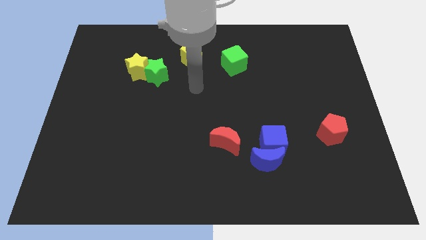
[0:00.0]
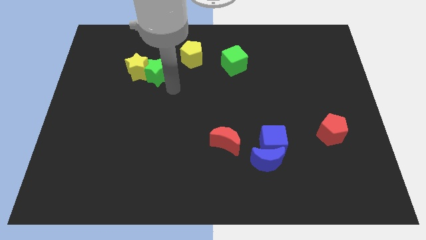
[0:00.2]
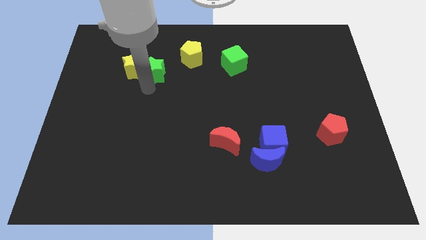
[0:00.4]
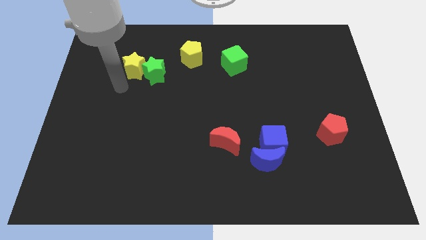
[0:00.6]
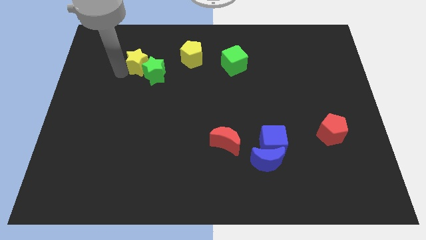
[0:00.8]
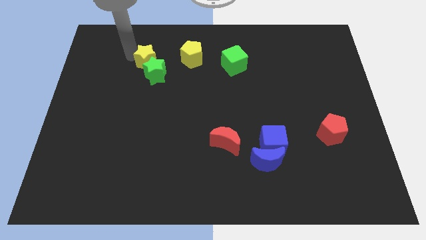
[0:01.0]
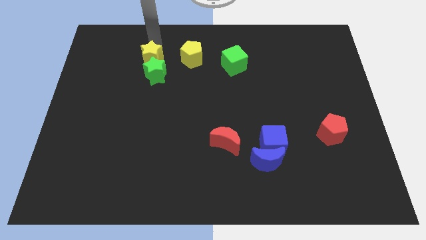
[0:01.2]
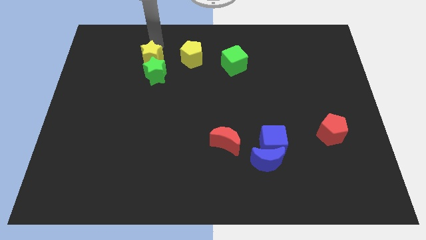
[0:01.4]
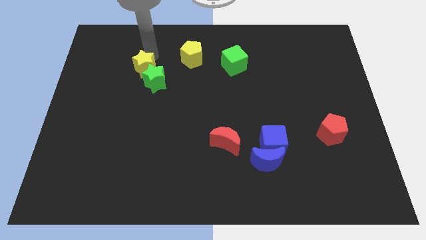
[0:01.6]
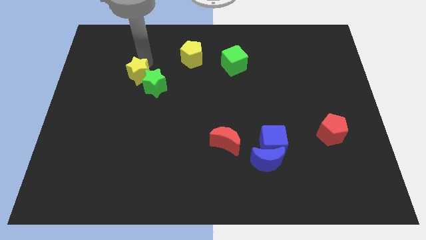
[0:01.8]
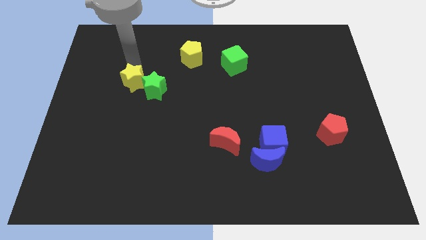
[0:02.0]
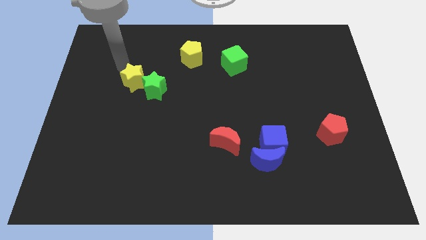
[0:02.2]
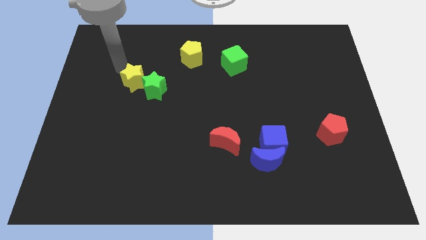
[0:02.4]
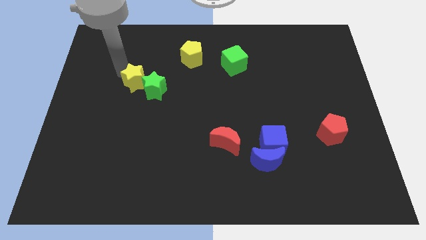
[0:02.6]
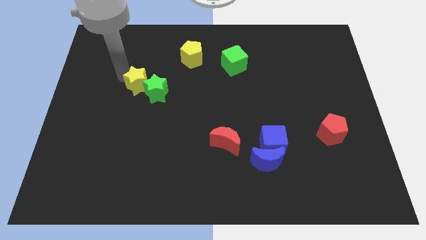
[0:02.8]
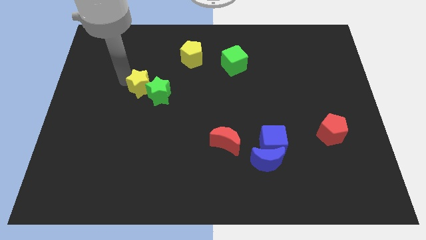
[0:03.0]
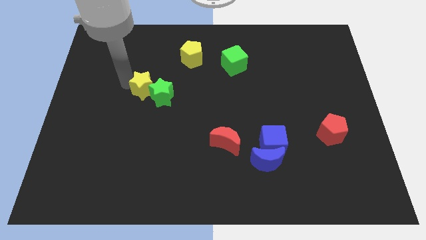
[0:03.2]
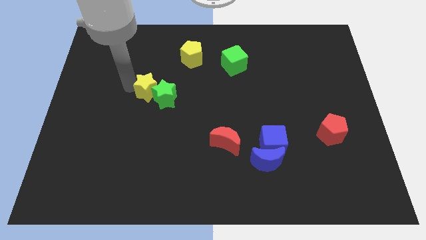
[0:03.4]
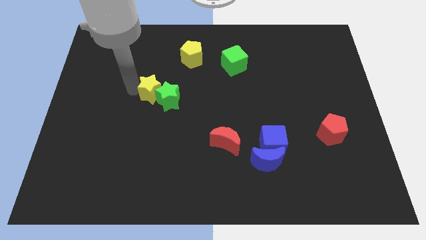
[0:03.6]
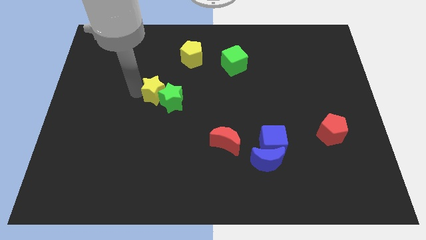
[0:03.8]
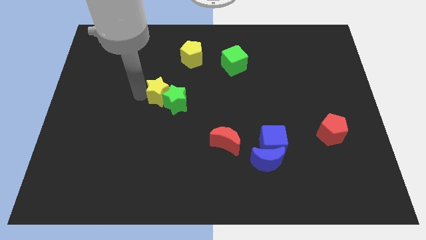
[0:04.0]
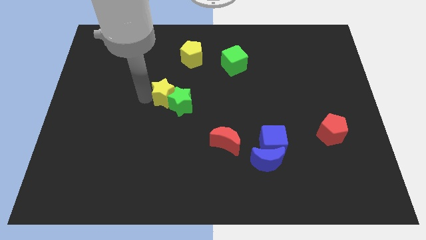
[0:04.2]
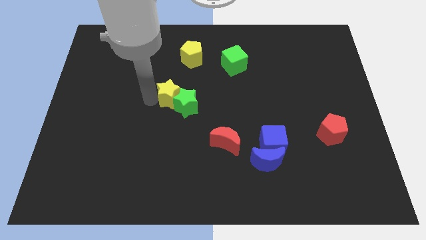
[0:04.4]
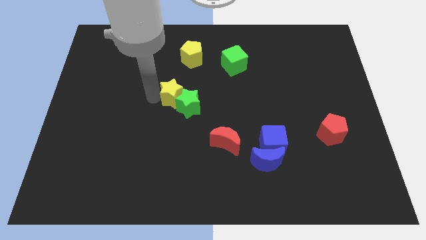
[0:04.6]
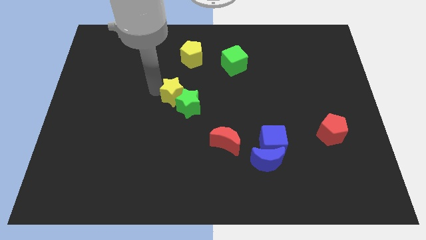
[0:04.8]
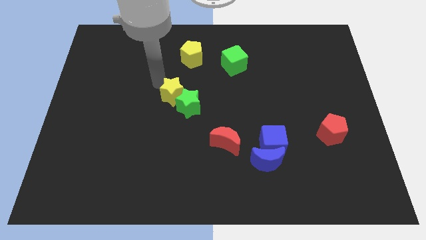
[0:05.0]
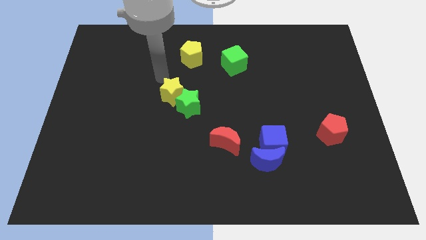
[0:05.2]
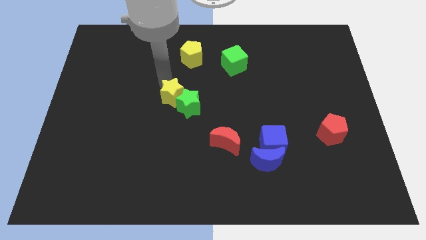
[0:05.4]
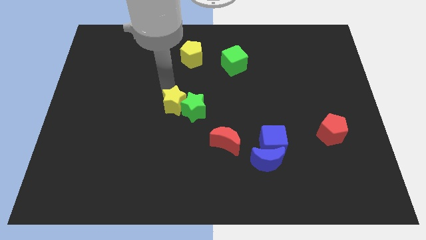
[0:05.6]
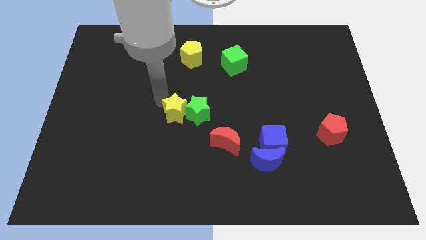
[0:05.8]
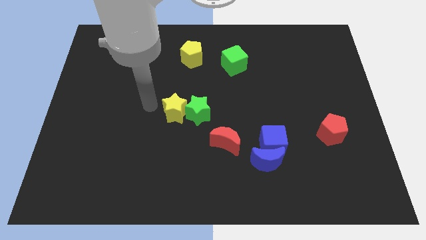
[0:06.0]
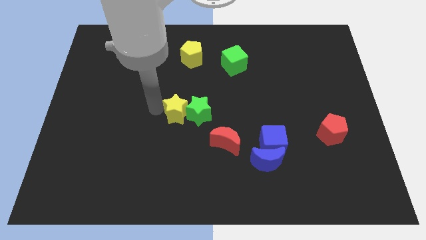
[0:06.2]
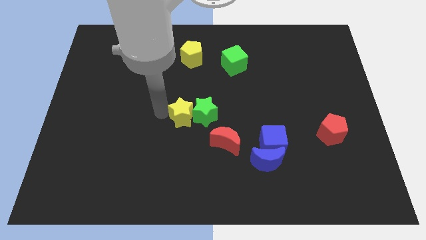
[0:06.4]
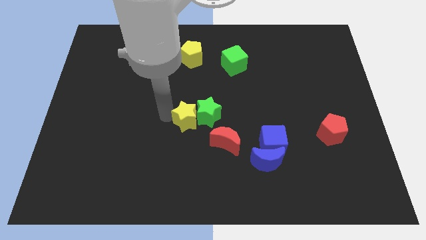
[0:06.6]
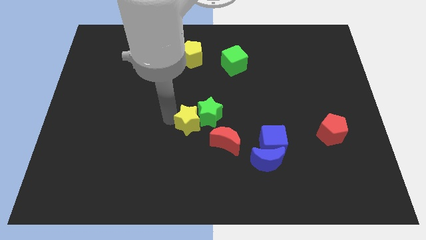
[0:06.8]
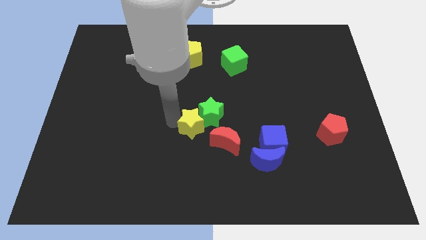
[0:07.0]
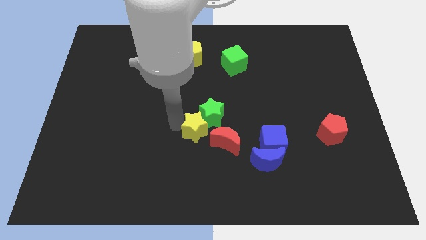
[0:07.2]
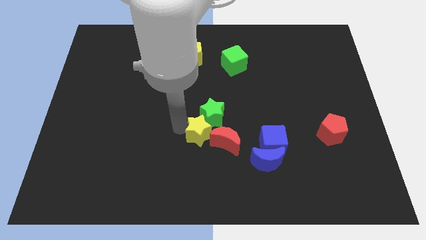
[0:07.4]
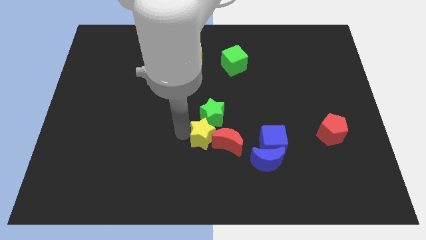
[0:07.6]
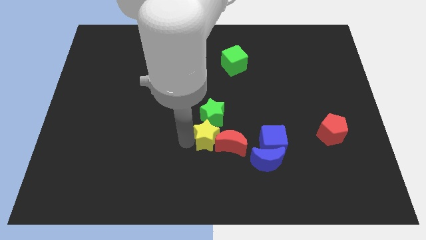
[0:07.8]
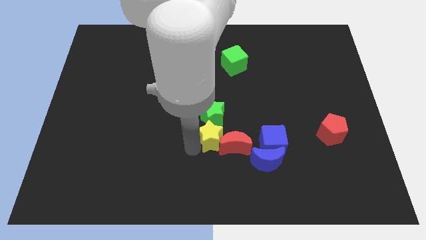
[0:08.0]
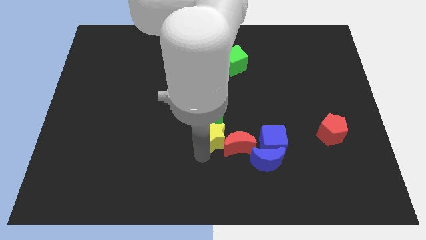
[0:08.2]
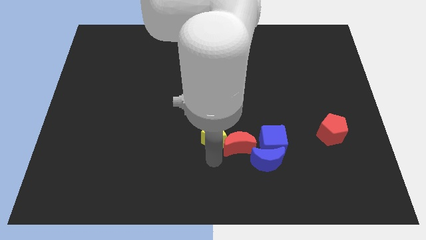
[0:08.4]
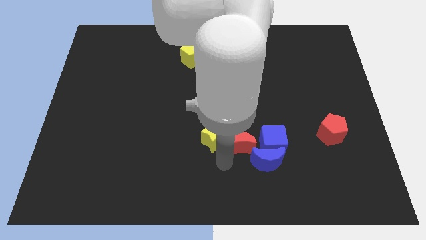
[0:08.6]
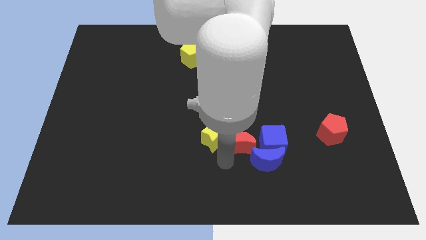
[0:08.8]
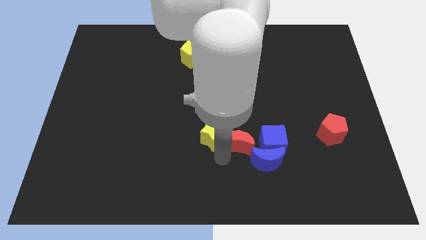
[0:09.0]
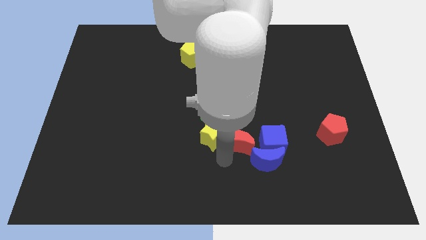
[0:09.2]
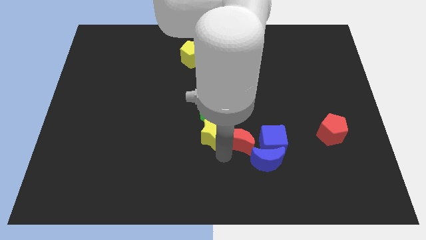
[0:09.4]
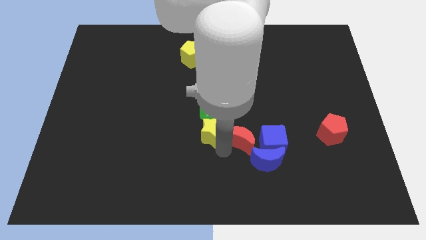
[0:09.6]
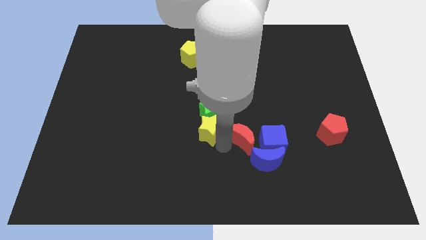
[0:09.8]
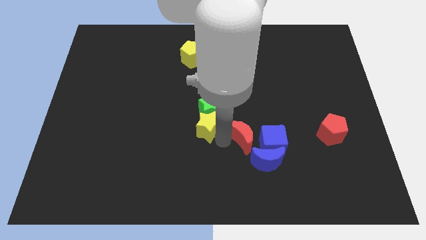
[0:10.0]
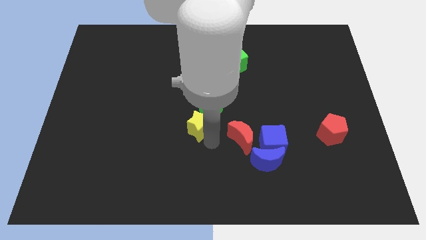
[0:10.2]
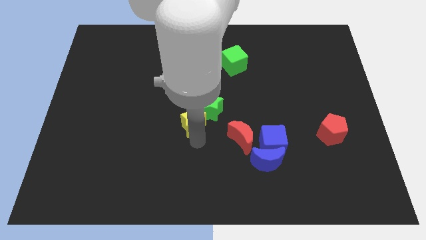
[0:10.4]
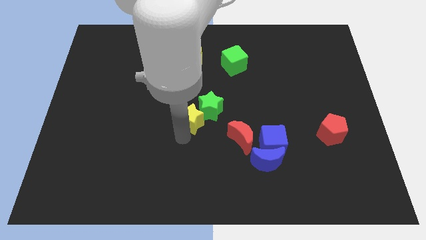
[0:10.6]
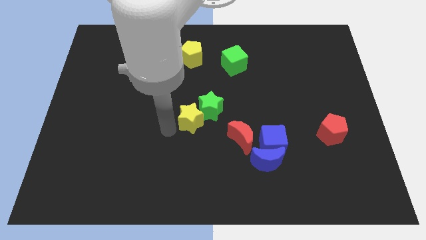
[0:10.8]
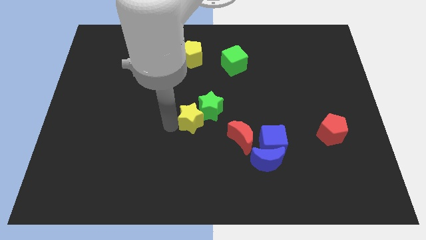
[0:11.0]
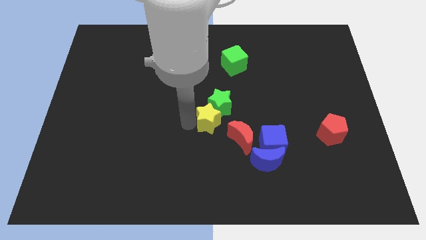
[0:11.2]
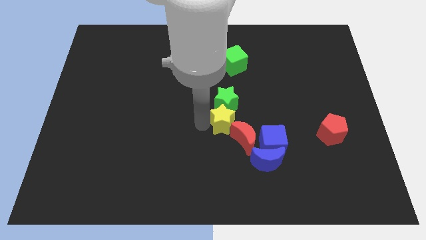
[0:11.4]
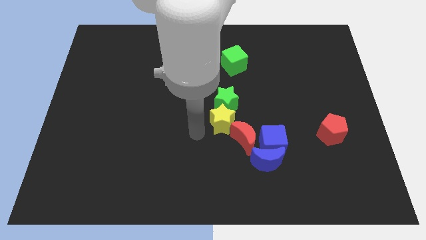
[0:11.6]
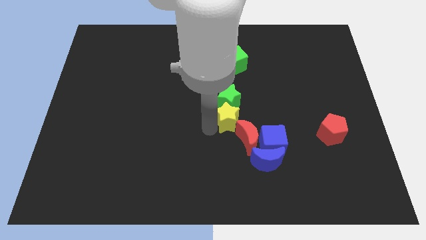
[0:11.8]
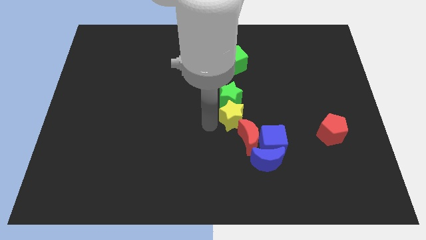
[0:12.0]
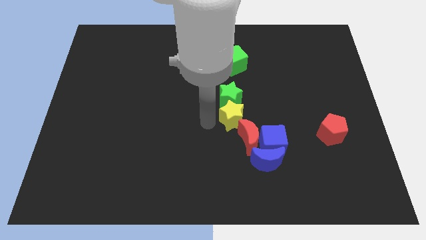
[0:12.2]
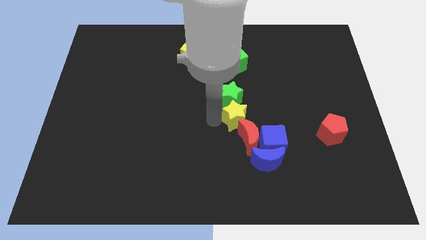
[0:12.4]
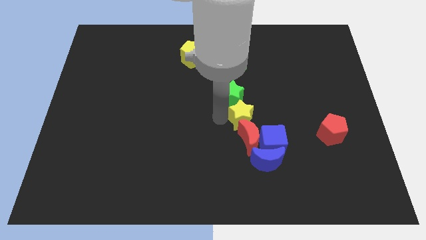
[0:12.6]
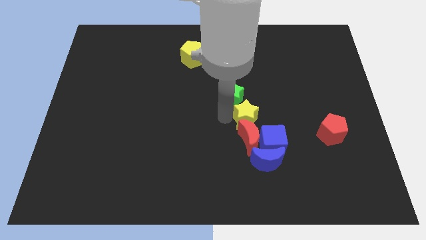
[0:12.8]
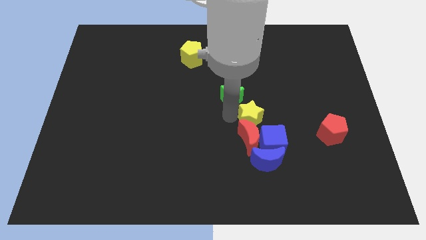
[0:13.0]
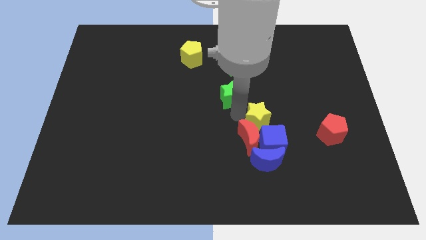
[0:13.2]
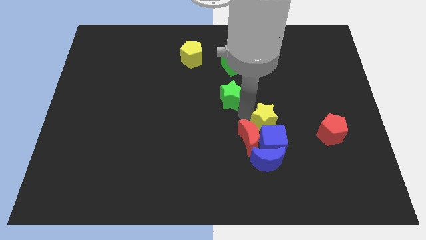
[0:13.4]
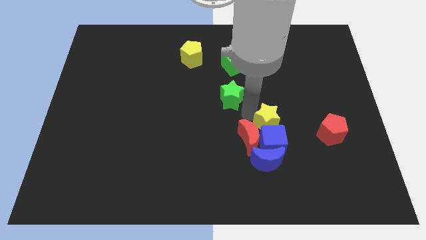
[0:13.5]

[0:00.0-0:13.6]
push the yellow star diagonally up and to the right of the blue cube
